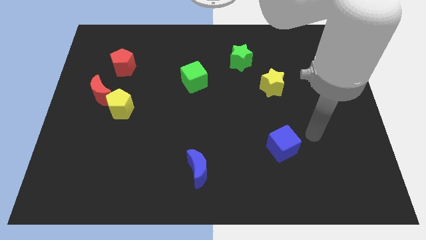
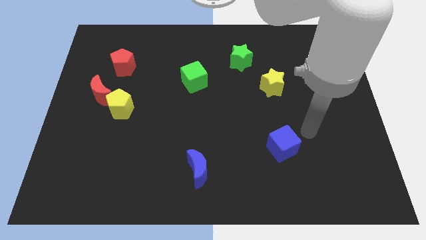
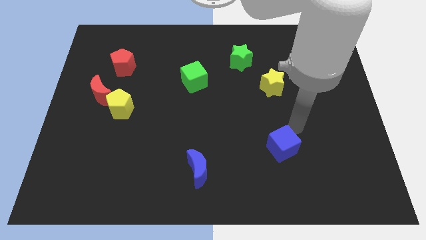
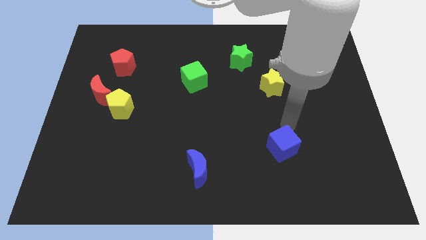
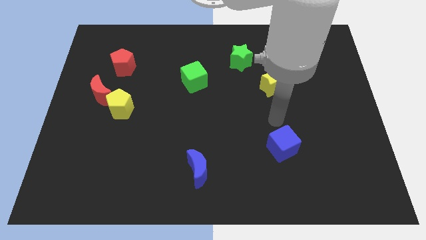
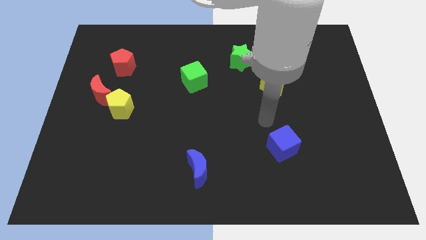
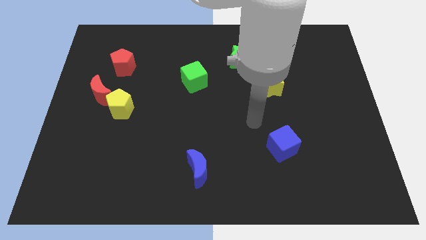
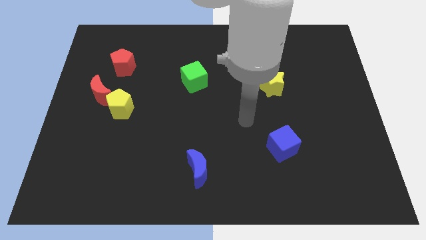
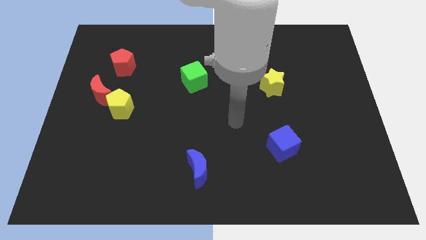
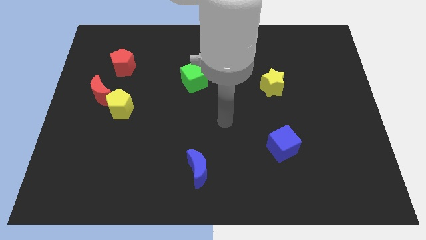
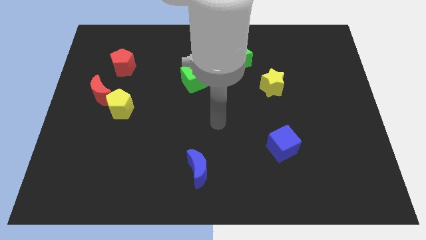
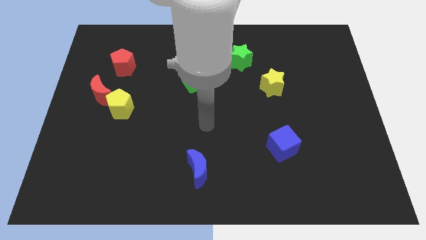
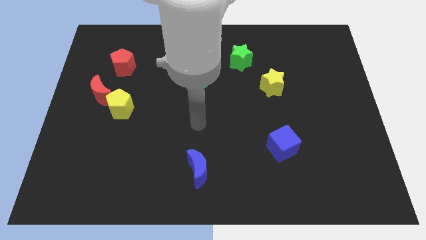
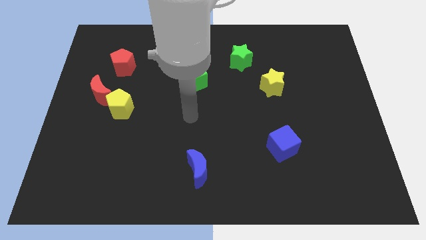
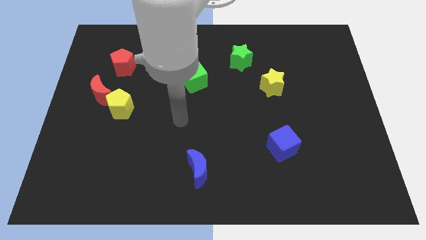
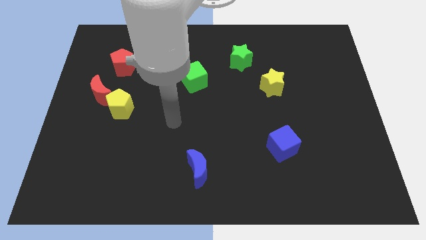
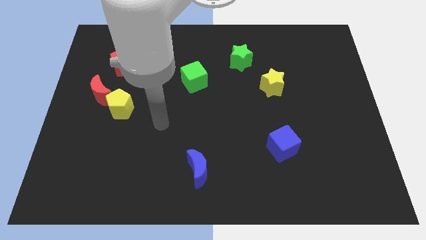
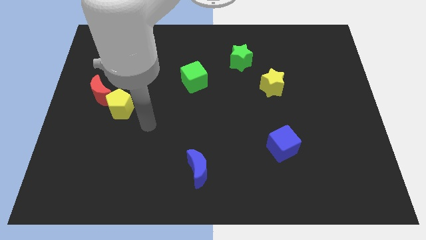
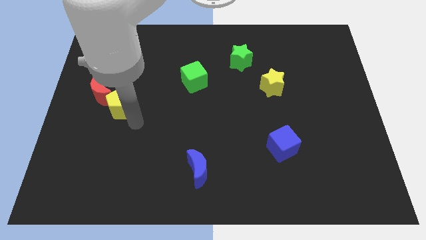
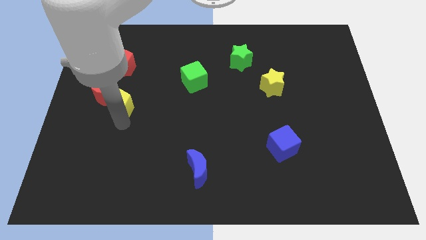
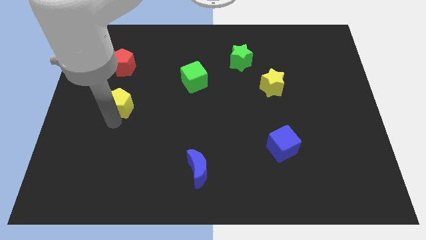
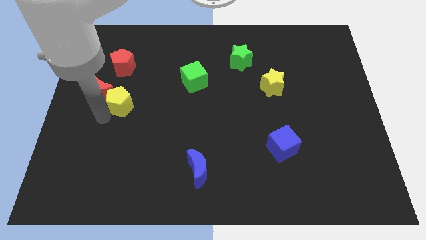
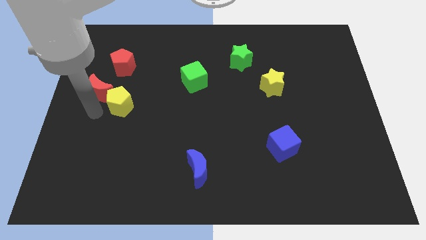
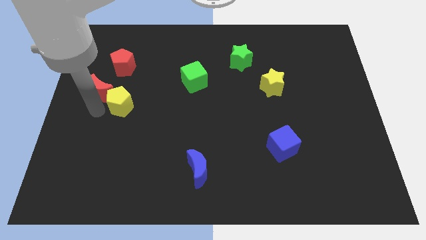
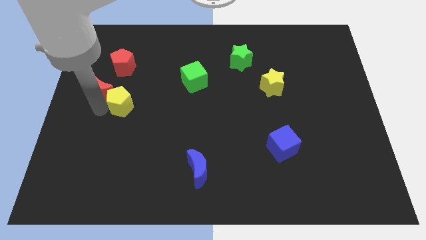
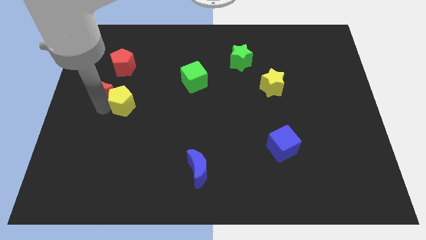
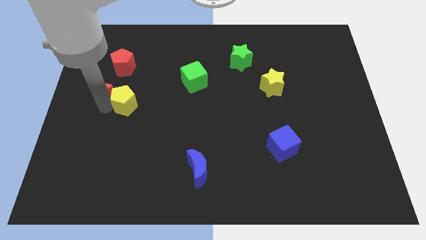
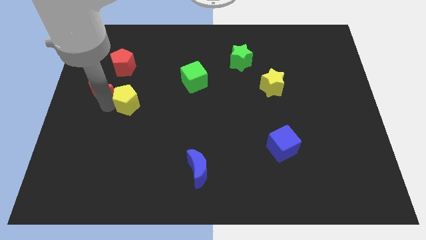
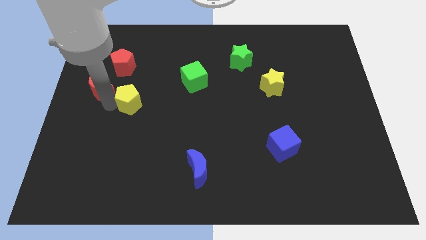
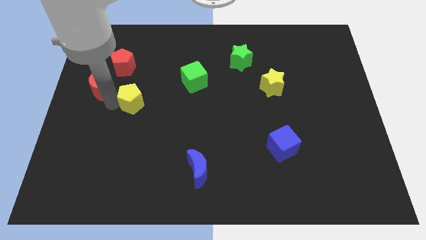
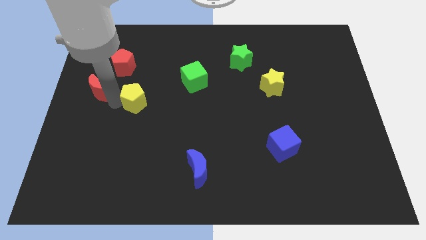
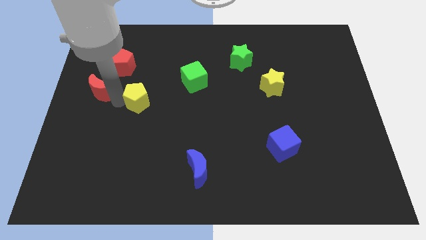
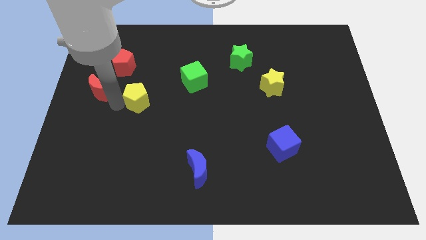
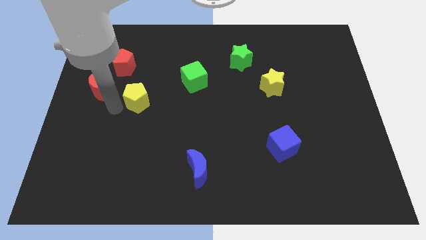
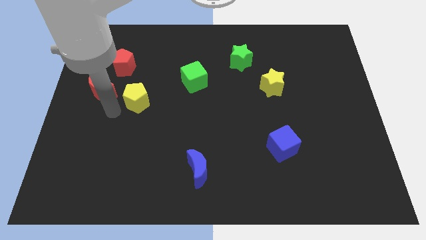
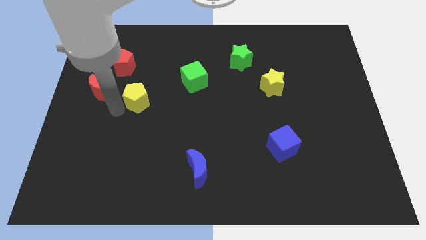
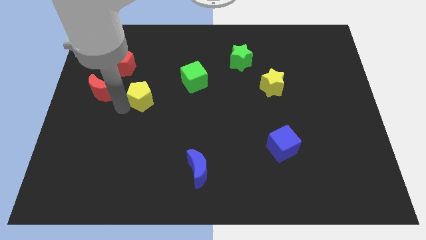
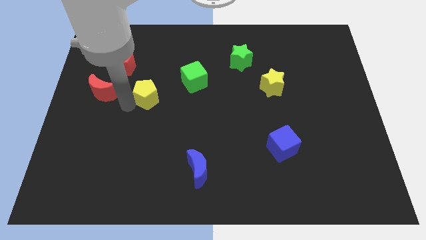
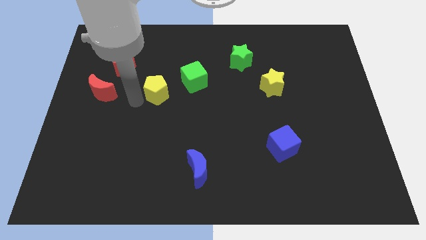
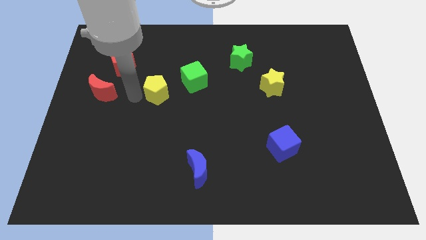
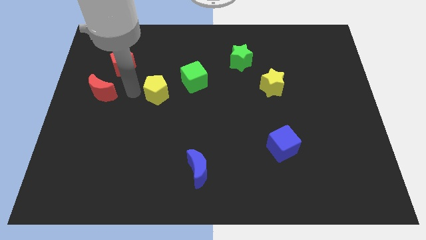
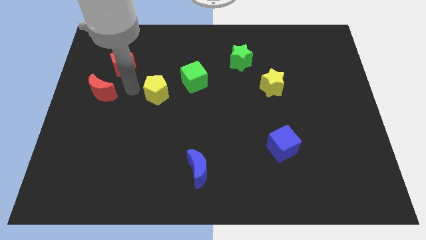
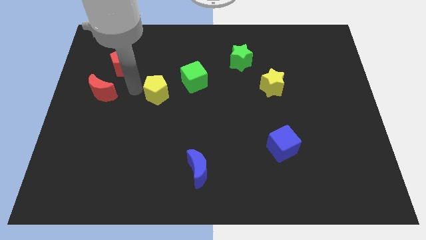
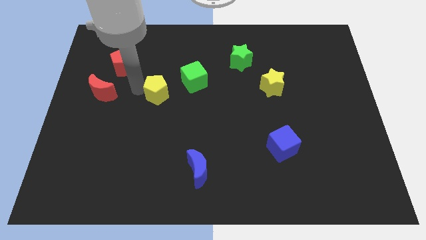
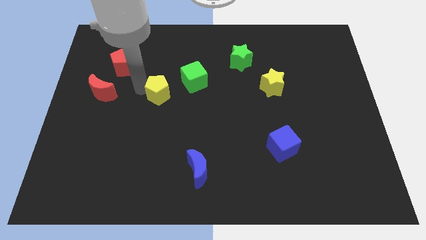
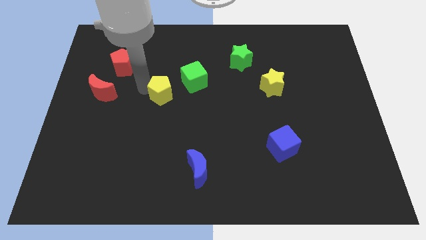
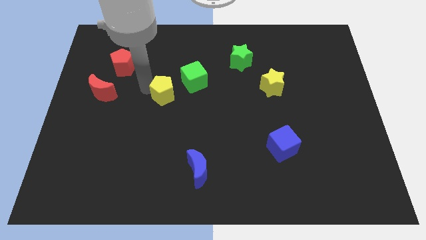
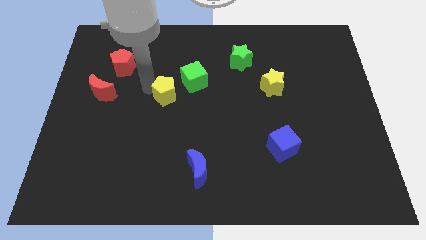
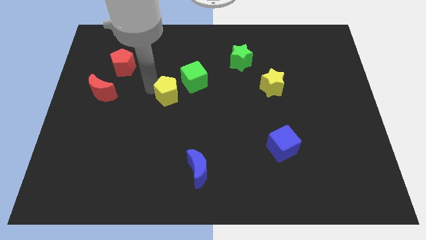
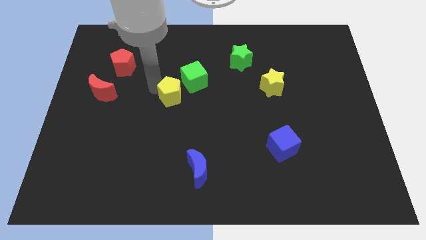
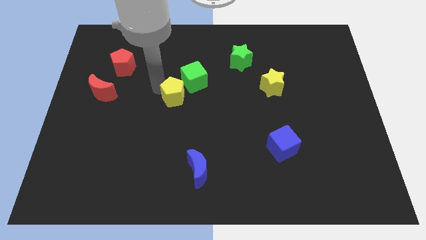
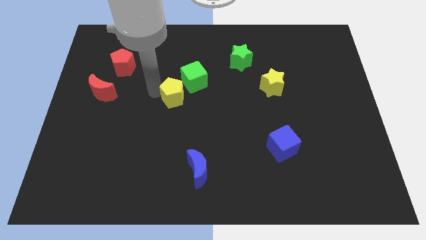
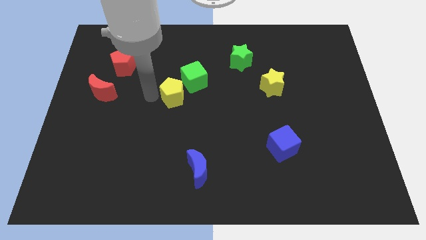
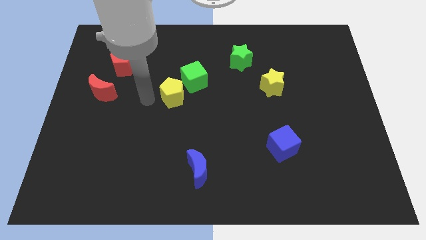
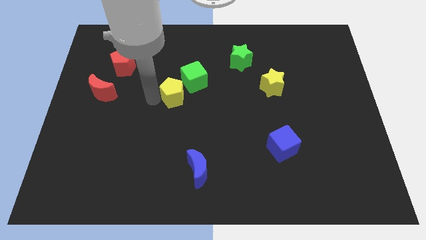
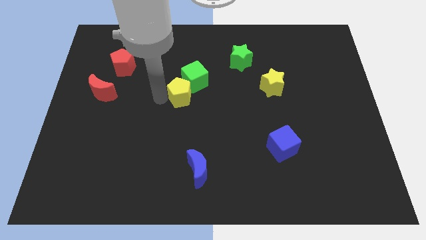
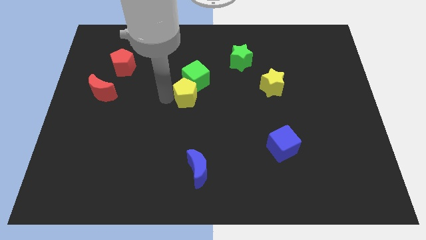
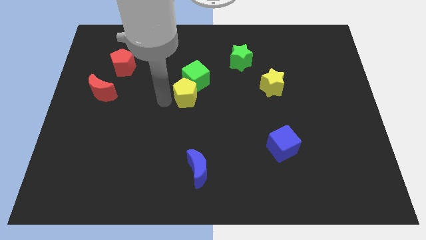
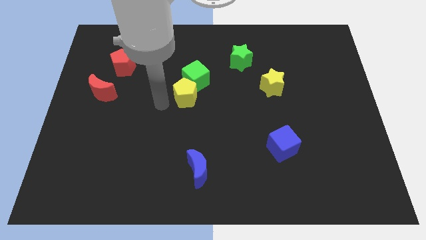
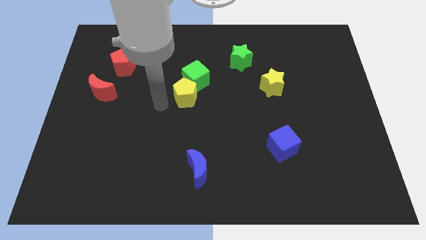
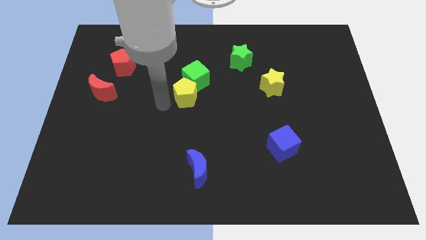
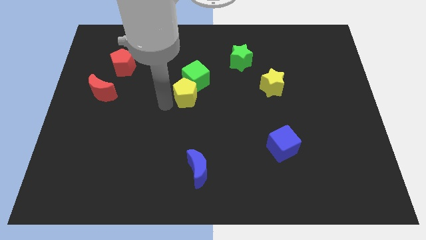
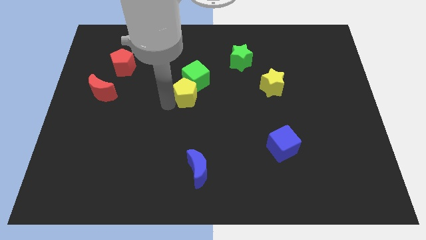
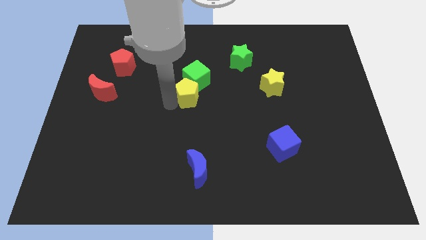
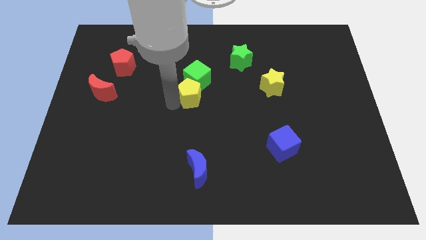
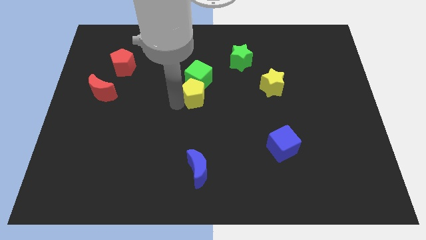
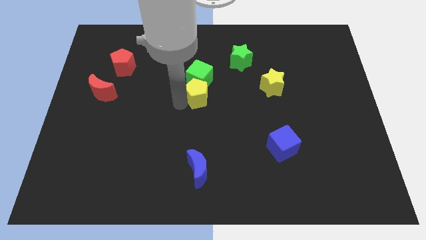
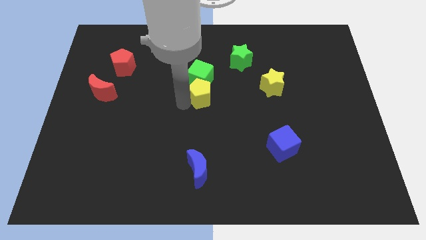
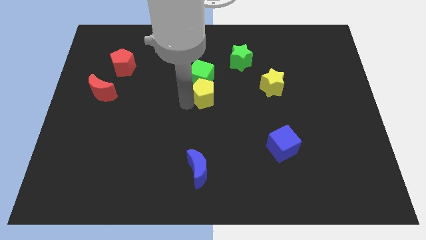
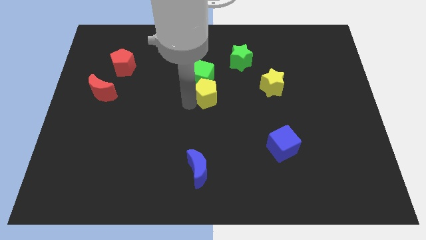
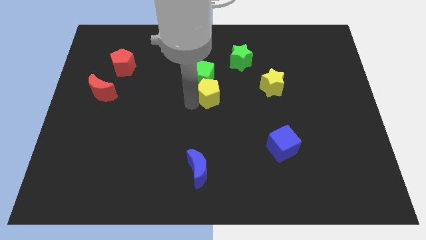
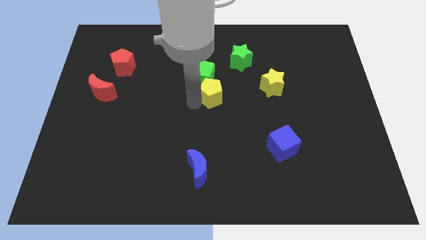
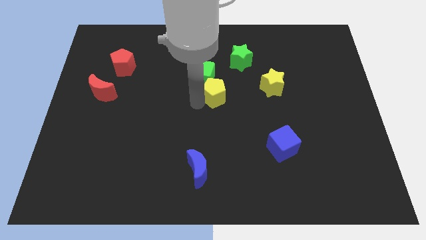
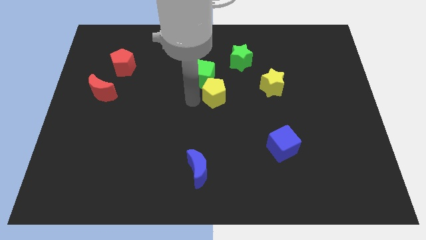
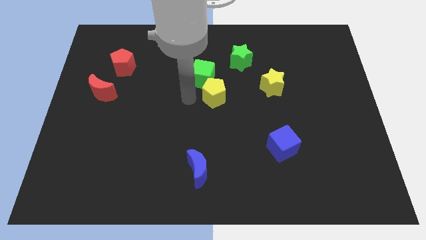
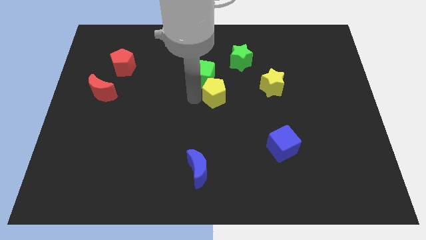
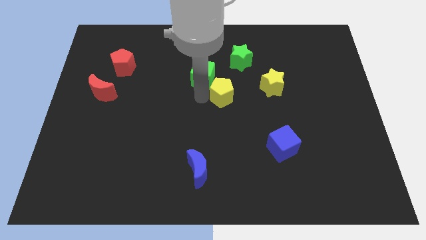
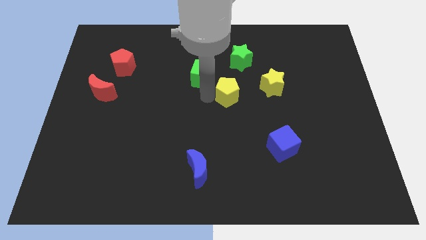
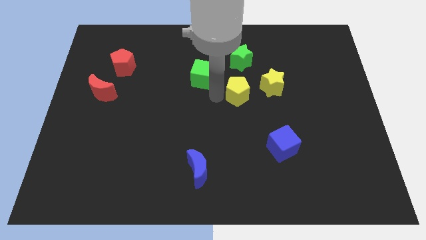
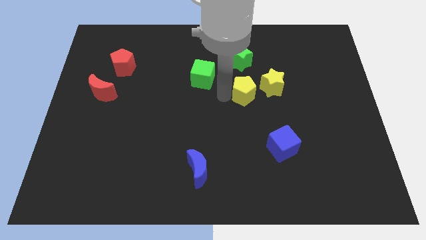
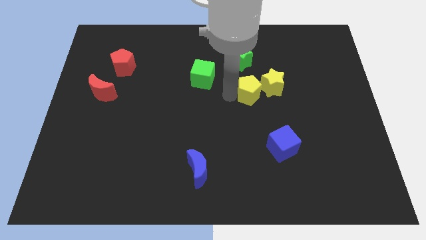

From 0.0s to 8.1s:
move the yellow pentagon close to the yellow star
